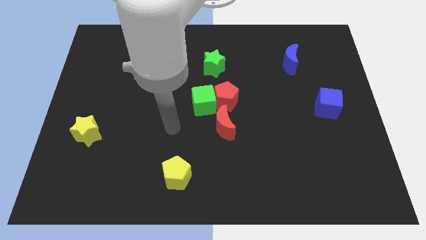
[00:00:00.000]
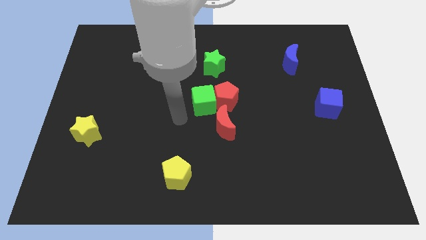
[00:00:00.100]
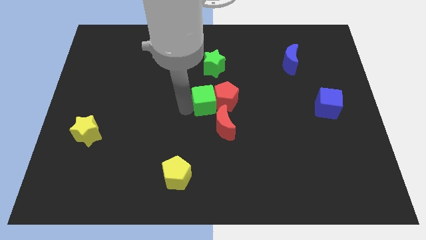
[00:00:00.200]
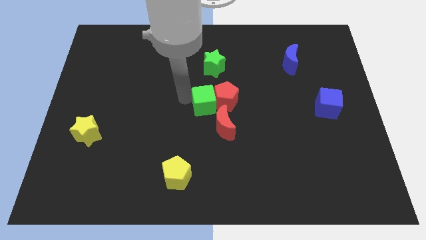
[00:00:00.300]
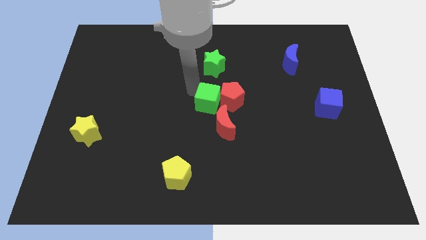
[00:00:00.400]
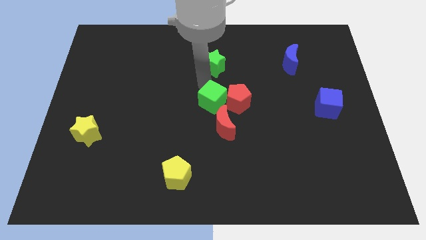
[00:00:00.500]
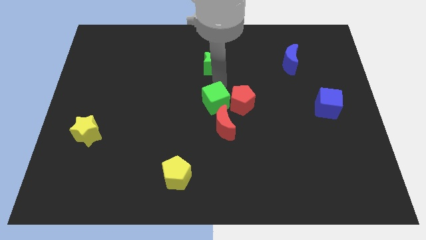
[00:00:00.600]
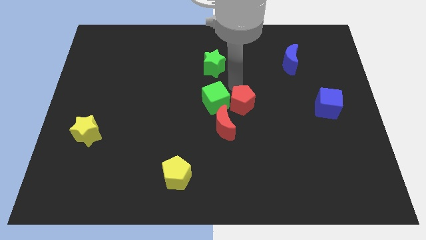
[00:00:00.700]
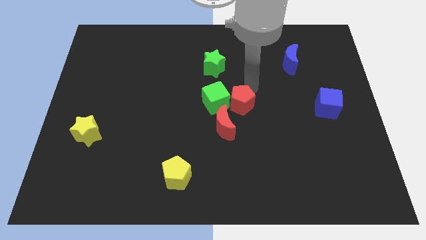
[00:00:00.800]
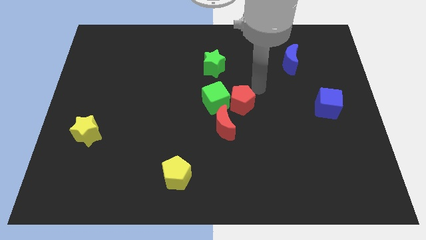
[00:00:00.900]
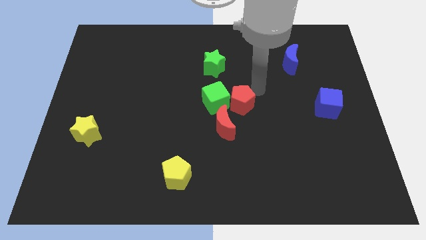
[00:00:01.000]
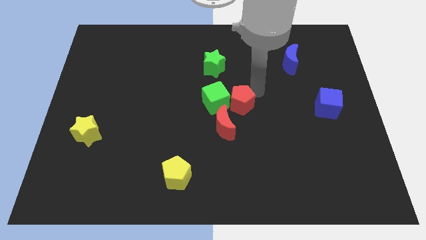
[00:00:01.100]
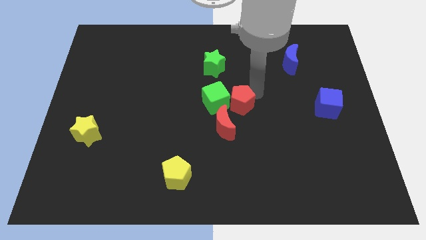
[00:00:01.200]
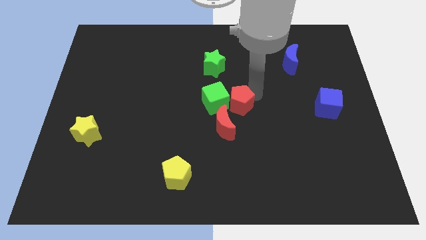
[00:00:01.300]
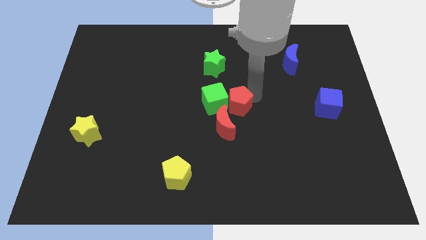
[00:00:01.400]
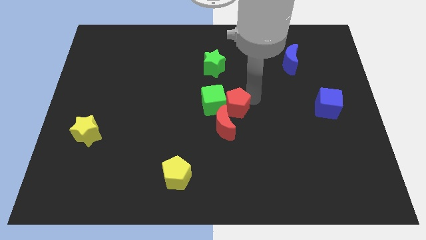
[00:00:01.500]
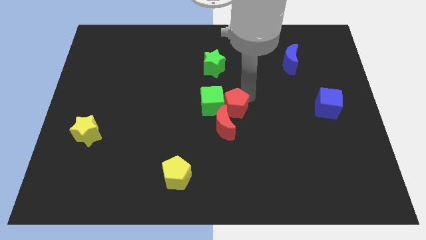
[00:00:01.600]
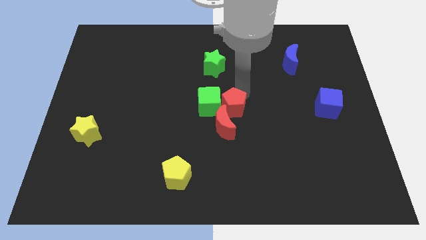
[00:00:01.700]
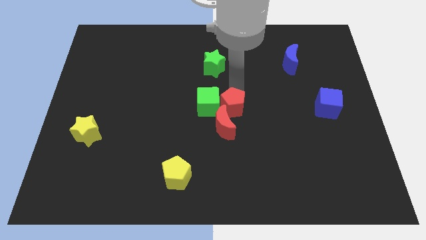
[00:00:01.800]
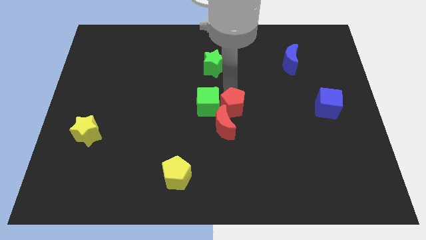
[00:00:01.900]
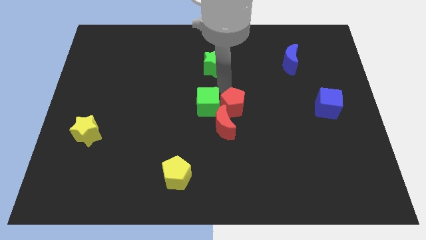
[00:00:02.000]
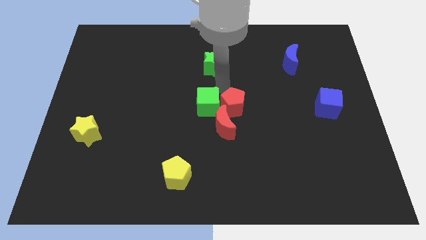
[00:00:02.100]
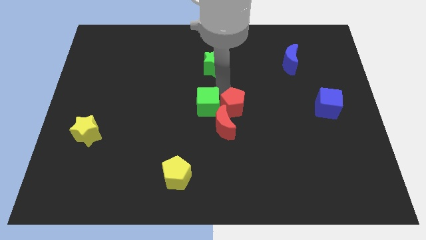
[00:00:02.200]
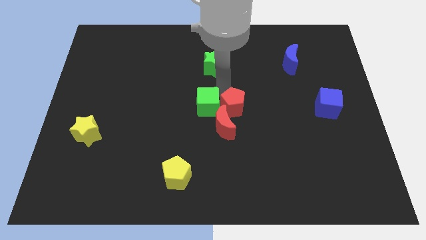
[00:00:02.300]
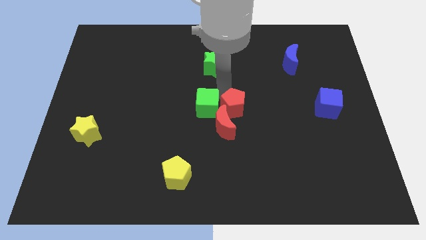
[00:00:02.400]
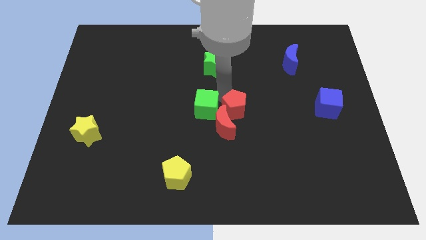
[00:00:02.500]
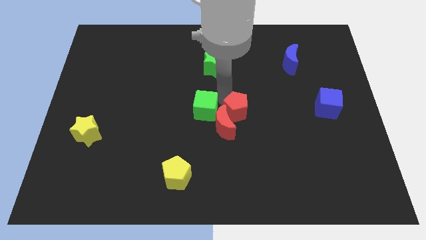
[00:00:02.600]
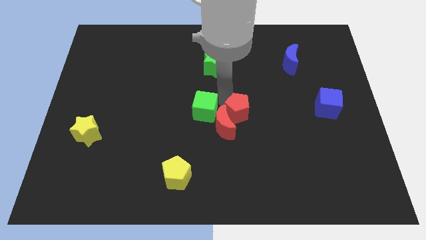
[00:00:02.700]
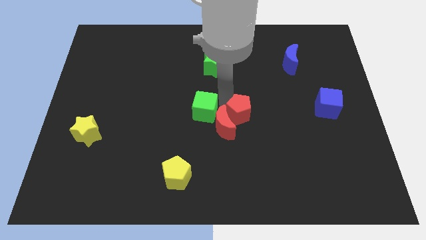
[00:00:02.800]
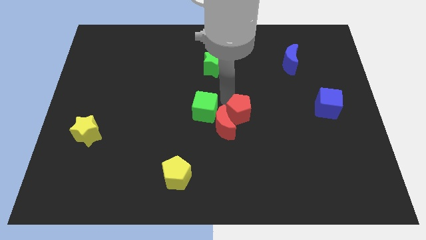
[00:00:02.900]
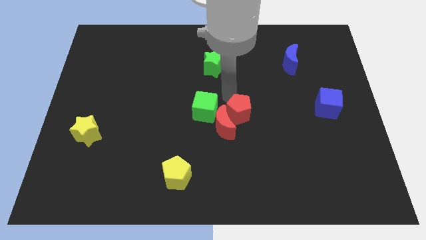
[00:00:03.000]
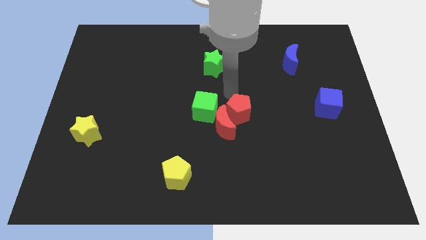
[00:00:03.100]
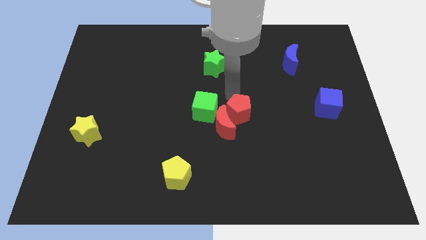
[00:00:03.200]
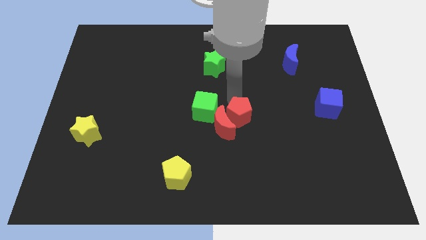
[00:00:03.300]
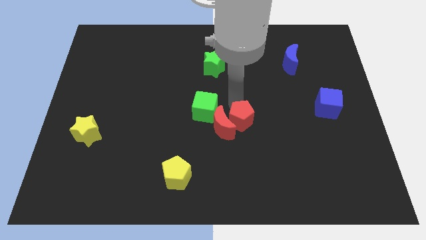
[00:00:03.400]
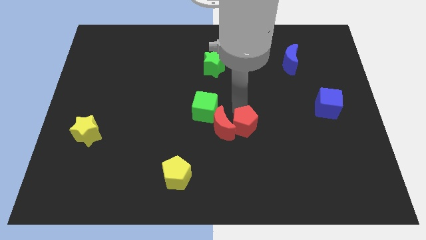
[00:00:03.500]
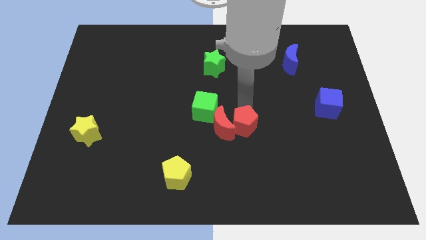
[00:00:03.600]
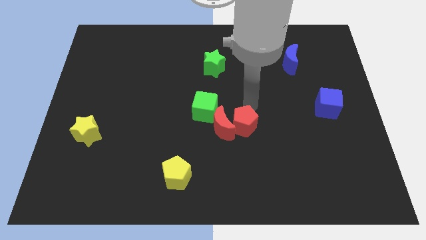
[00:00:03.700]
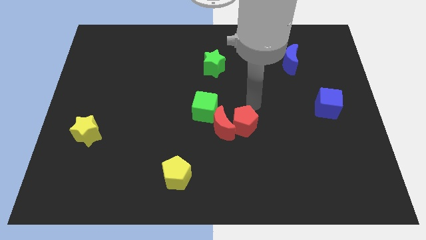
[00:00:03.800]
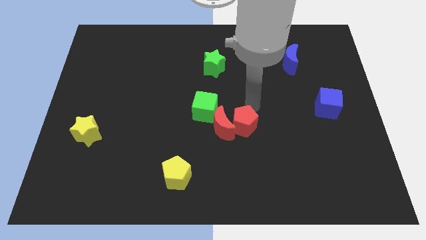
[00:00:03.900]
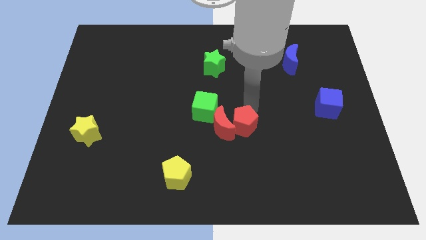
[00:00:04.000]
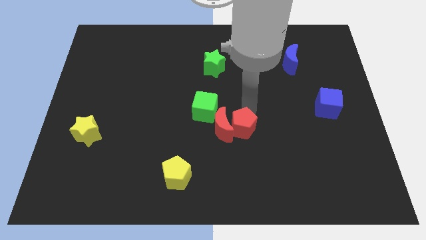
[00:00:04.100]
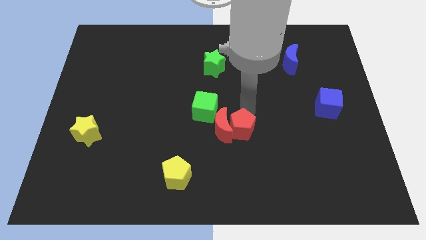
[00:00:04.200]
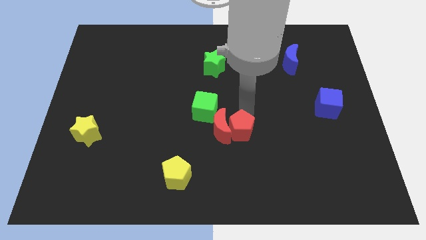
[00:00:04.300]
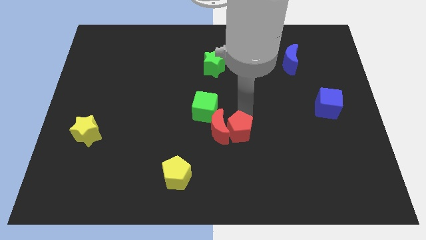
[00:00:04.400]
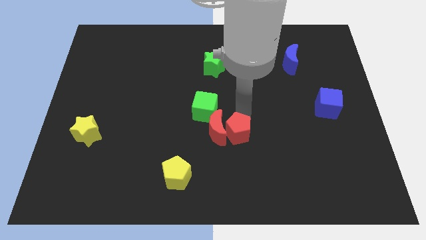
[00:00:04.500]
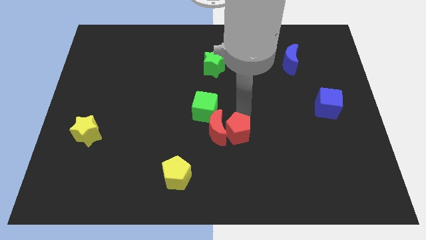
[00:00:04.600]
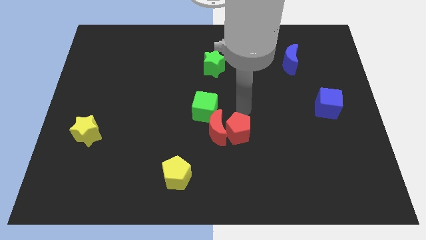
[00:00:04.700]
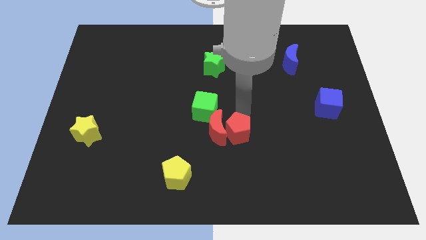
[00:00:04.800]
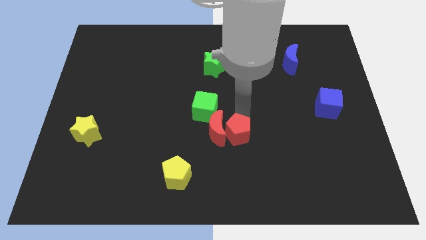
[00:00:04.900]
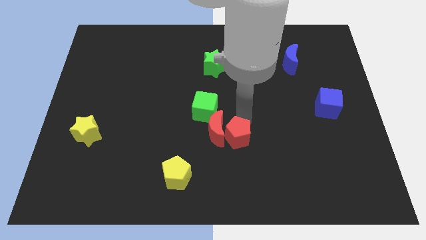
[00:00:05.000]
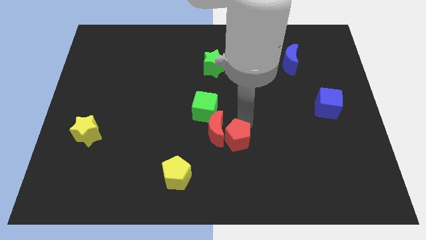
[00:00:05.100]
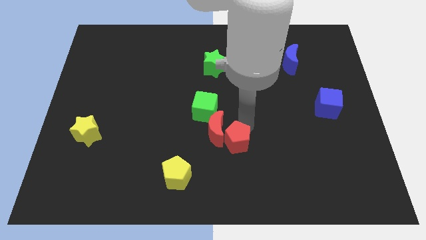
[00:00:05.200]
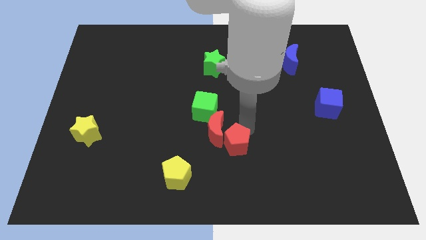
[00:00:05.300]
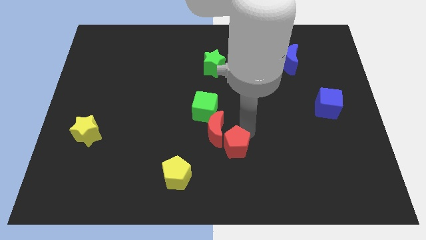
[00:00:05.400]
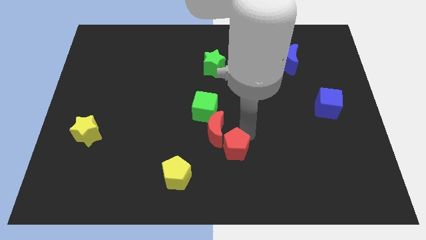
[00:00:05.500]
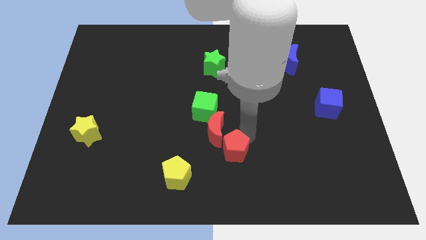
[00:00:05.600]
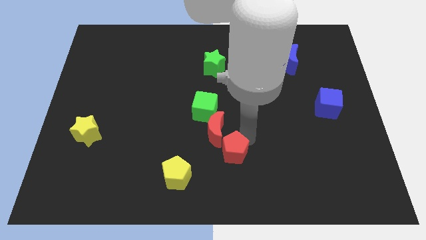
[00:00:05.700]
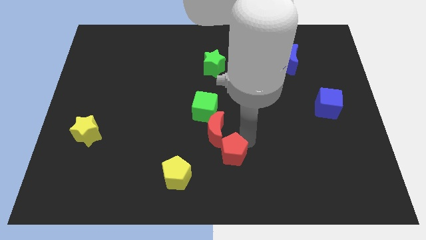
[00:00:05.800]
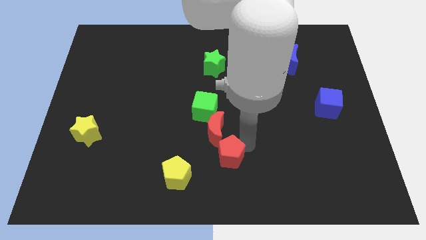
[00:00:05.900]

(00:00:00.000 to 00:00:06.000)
push the red pentagon to the bottom side
